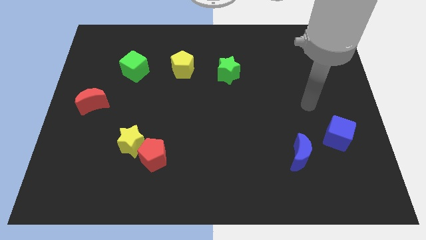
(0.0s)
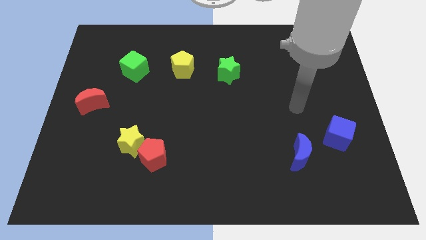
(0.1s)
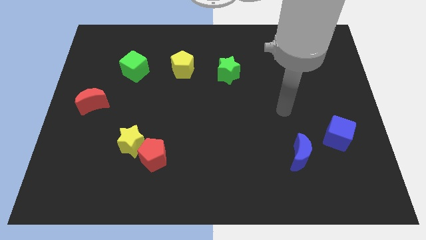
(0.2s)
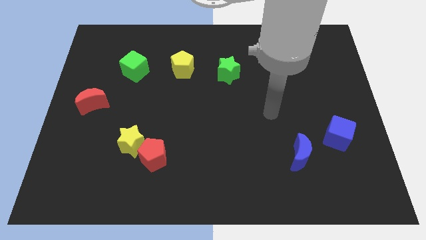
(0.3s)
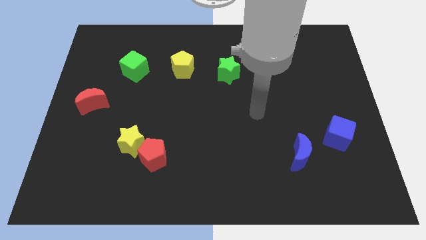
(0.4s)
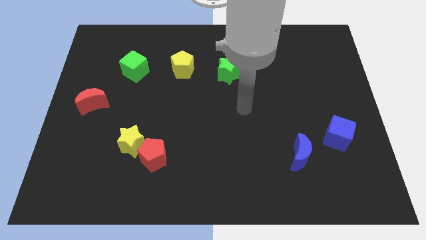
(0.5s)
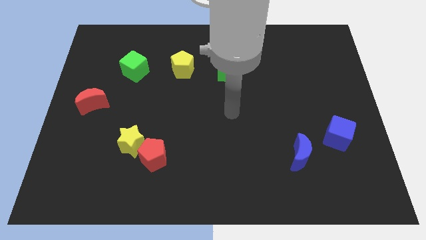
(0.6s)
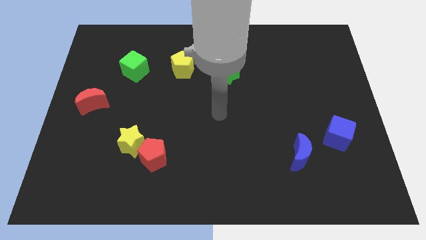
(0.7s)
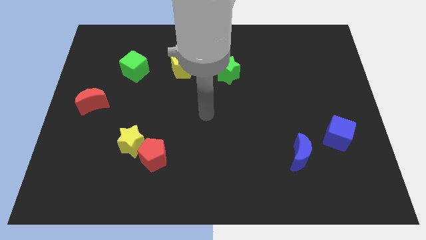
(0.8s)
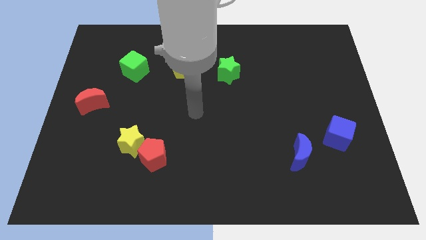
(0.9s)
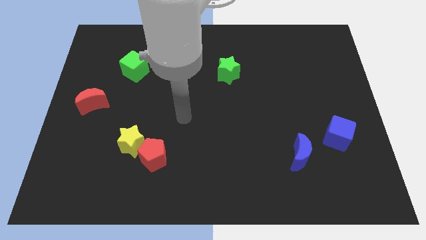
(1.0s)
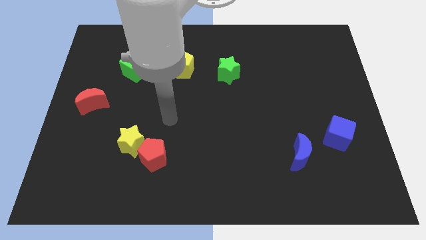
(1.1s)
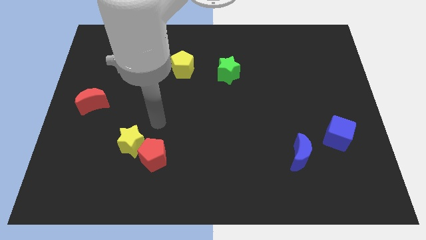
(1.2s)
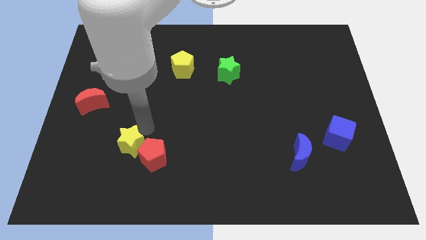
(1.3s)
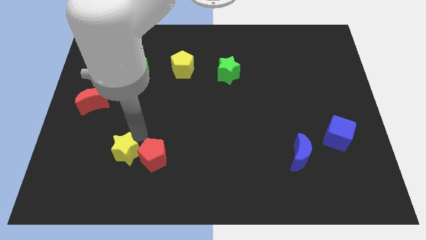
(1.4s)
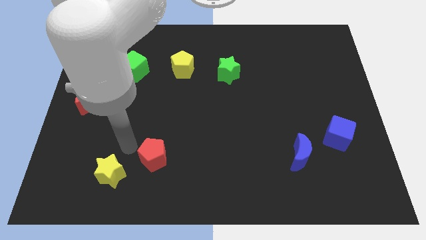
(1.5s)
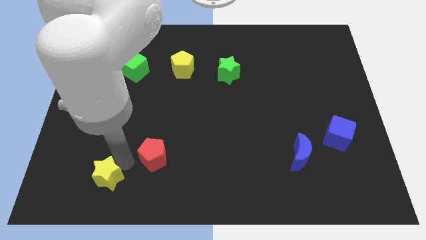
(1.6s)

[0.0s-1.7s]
move the red pentagon away from the yellow star

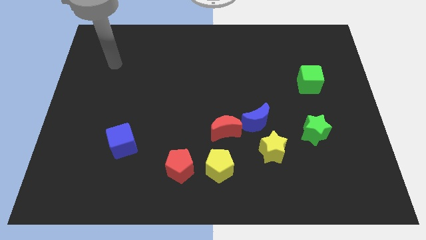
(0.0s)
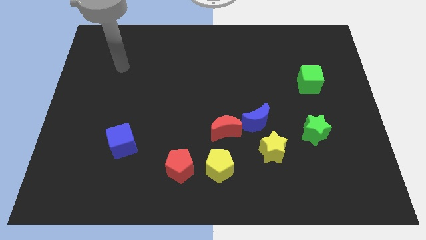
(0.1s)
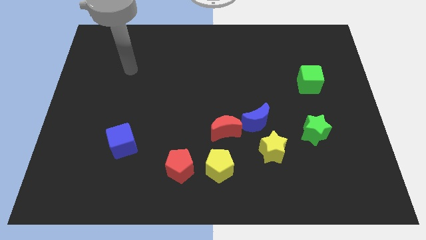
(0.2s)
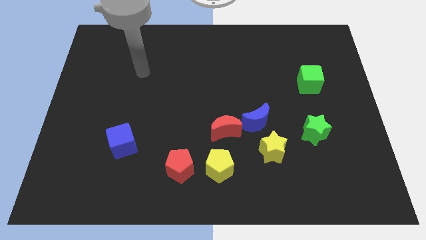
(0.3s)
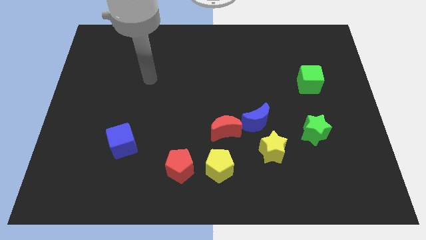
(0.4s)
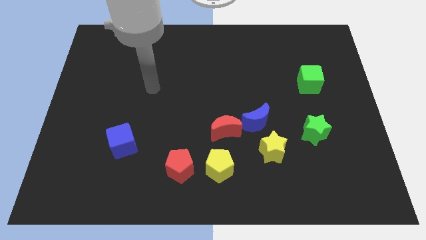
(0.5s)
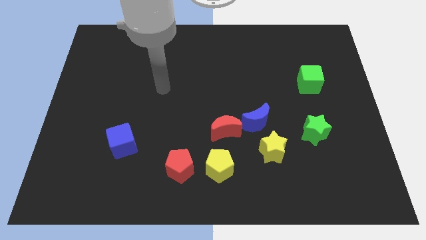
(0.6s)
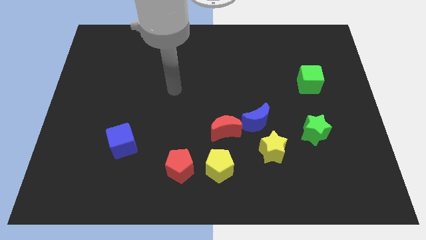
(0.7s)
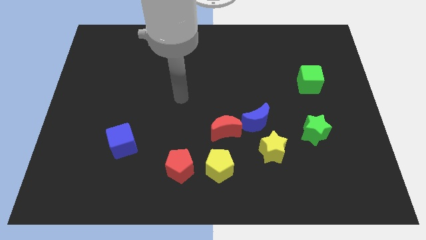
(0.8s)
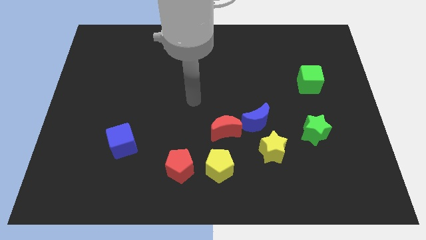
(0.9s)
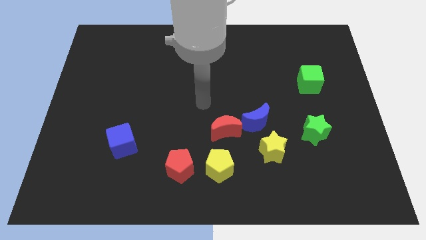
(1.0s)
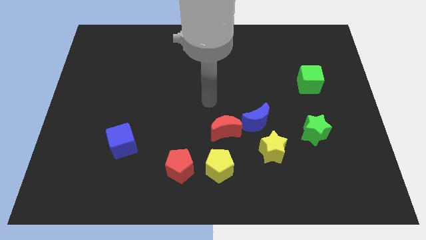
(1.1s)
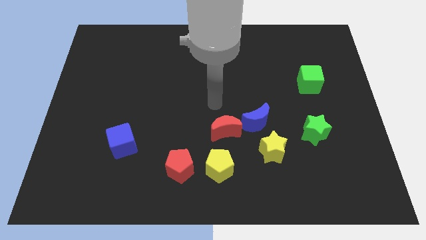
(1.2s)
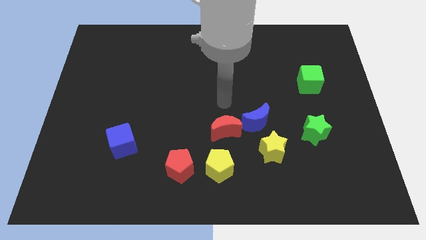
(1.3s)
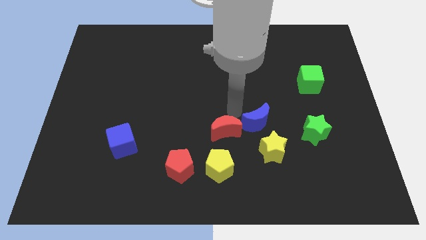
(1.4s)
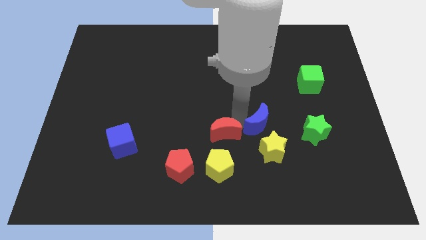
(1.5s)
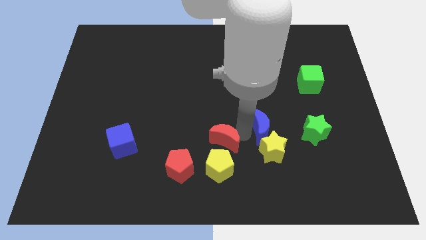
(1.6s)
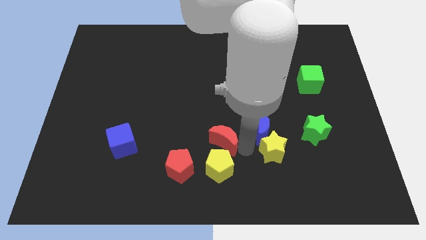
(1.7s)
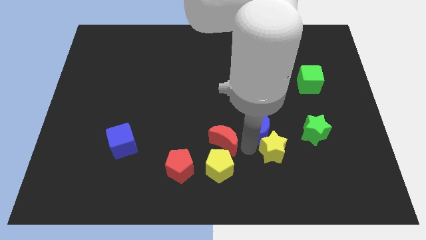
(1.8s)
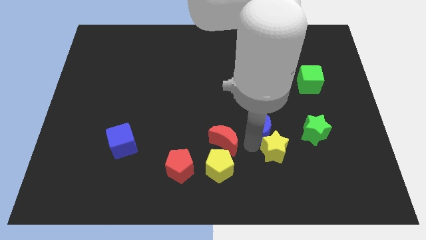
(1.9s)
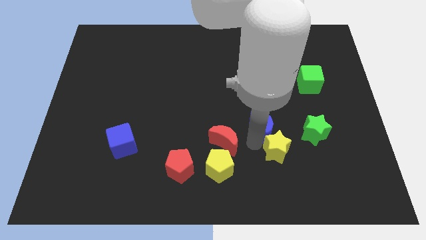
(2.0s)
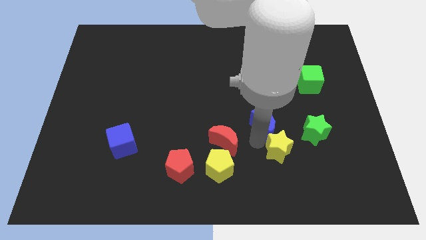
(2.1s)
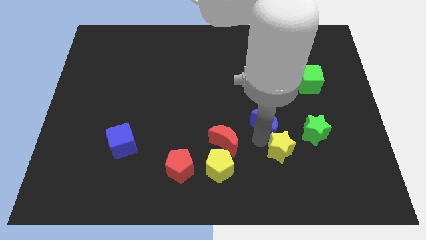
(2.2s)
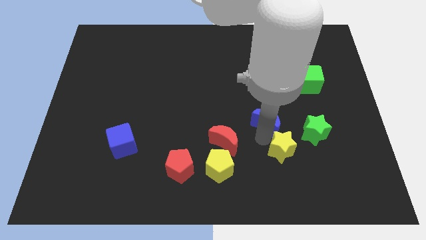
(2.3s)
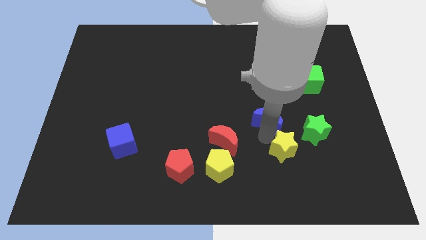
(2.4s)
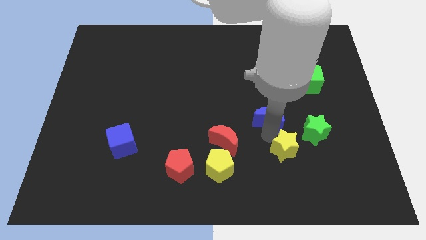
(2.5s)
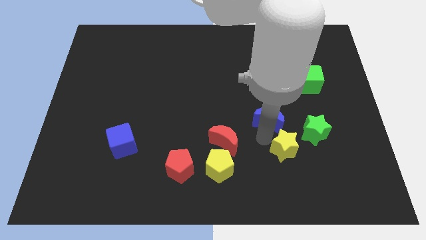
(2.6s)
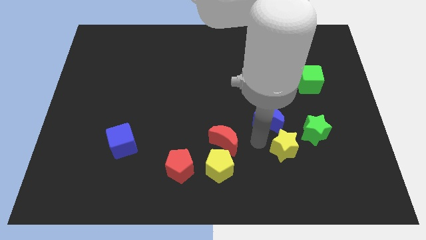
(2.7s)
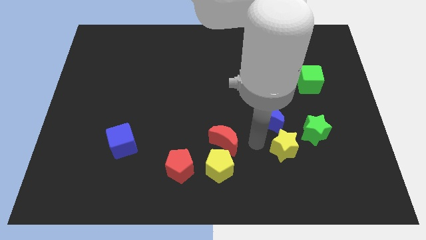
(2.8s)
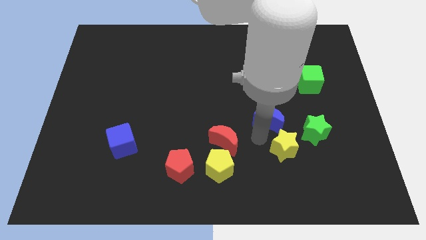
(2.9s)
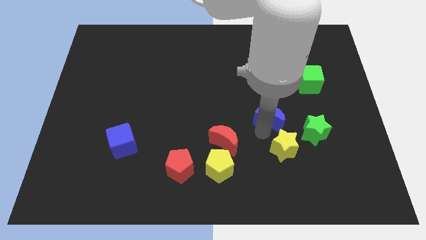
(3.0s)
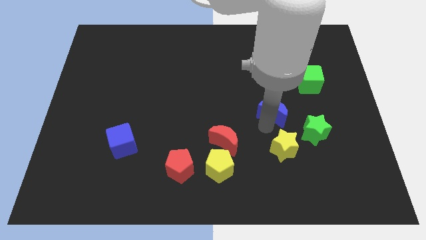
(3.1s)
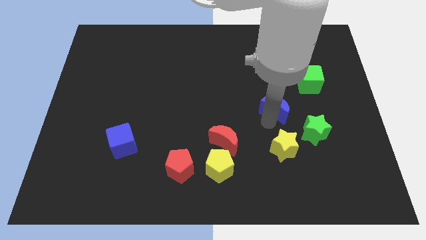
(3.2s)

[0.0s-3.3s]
separate the blue moon from the red moon and yellow star

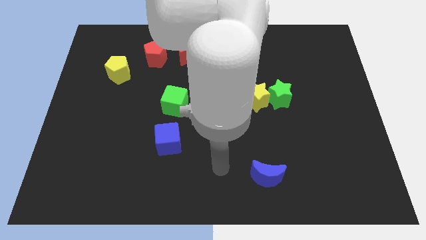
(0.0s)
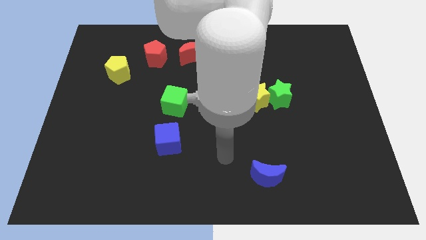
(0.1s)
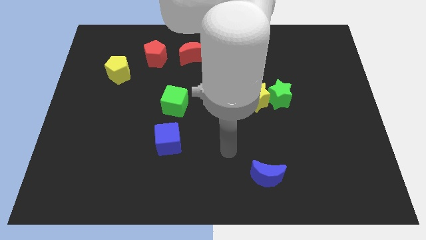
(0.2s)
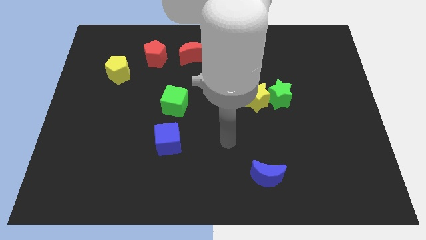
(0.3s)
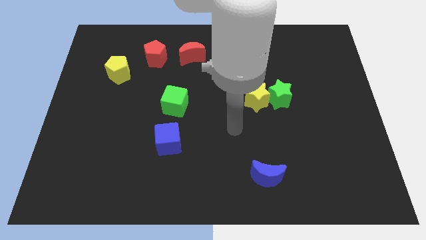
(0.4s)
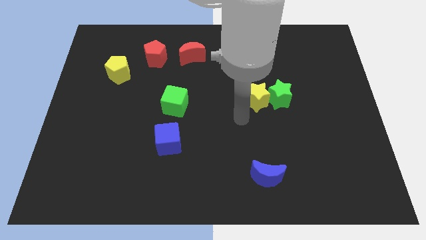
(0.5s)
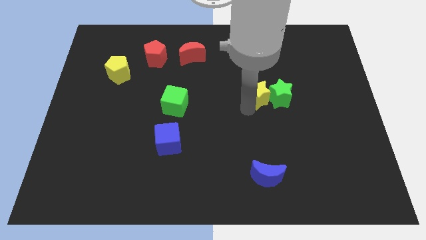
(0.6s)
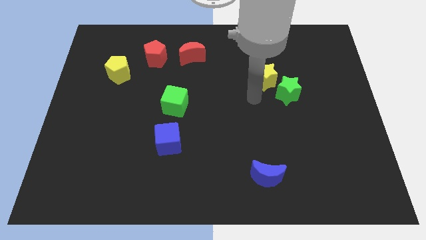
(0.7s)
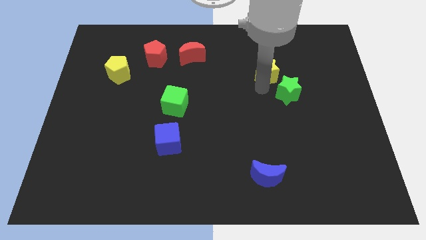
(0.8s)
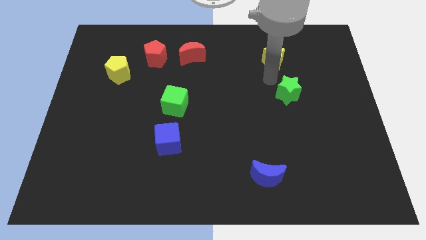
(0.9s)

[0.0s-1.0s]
separate the green star from the yellow star

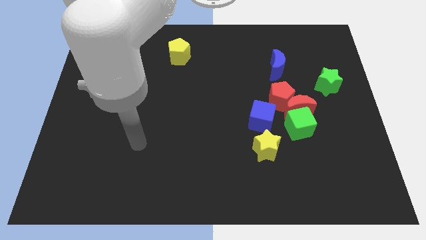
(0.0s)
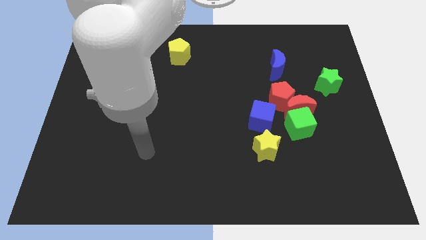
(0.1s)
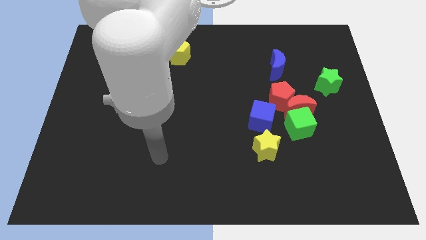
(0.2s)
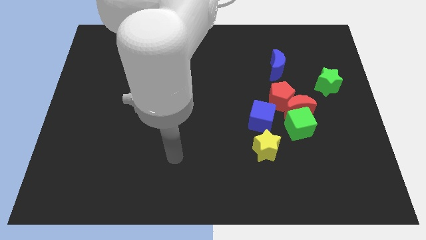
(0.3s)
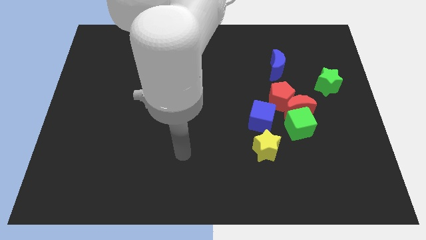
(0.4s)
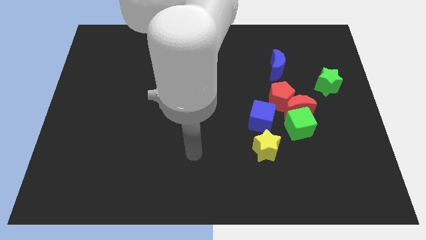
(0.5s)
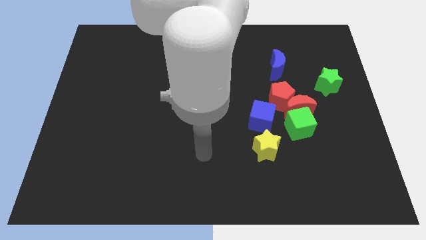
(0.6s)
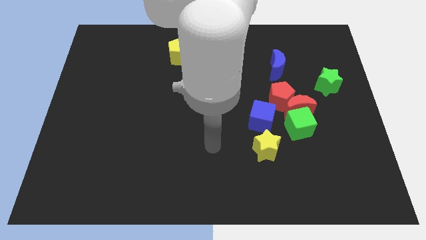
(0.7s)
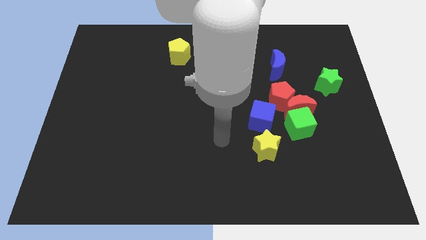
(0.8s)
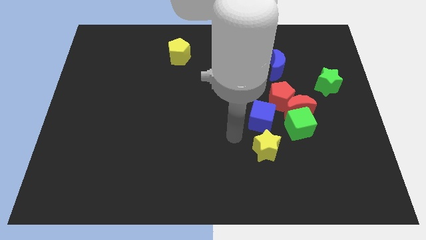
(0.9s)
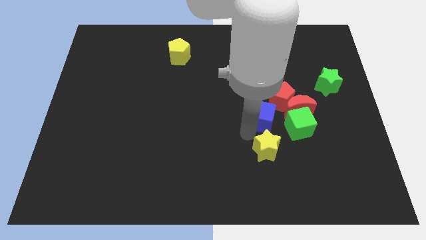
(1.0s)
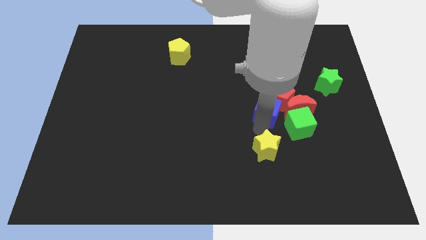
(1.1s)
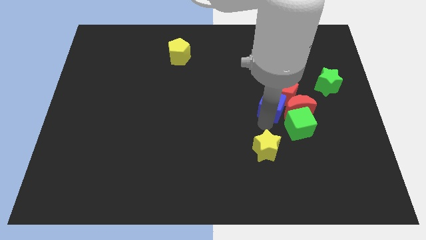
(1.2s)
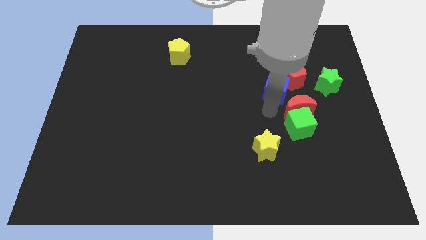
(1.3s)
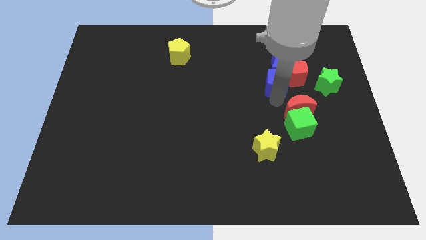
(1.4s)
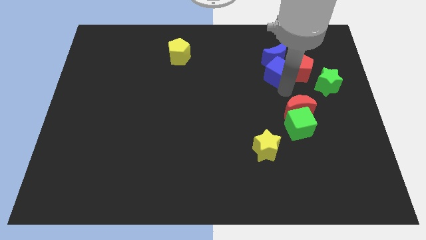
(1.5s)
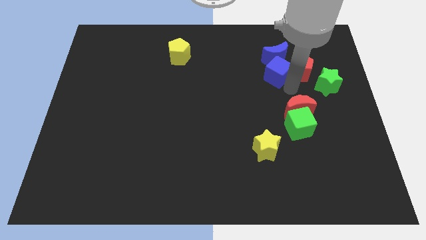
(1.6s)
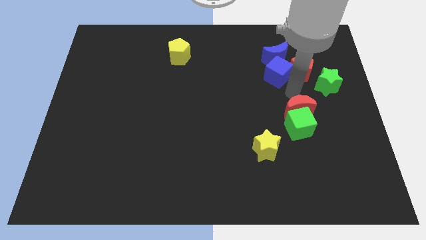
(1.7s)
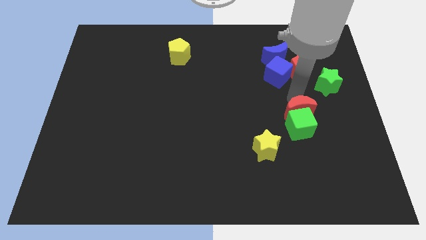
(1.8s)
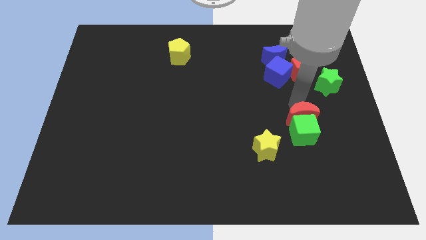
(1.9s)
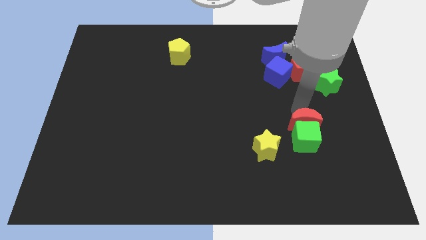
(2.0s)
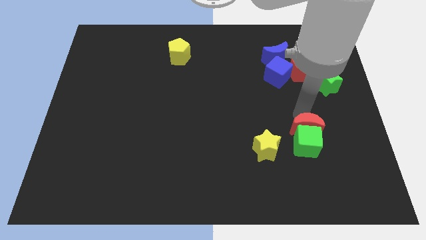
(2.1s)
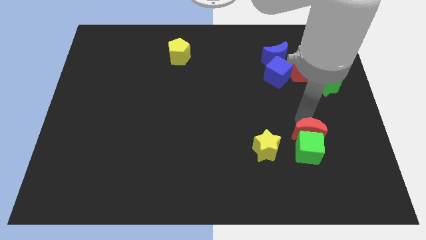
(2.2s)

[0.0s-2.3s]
separate the red moon from the group

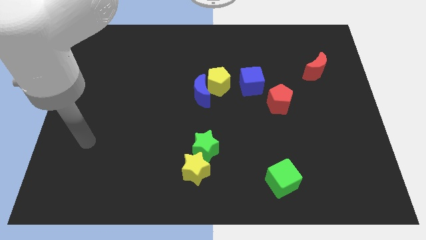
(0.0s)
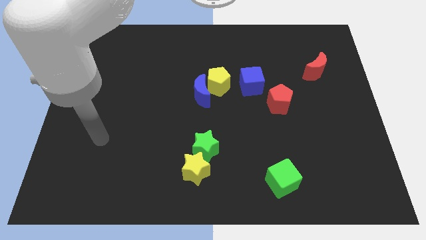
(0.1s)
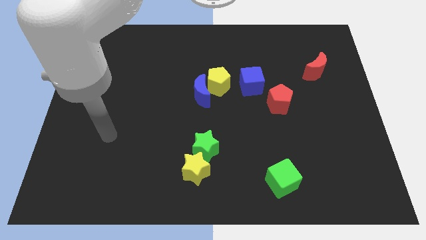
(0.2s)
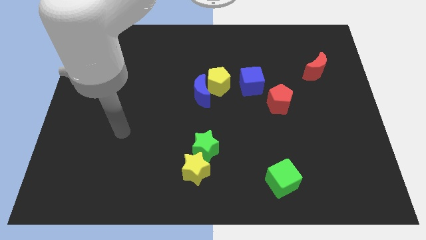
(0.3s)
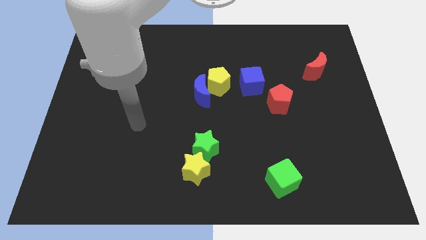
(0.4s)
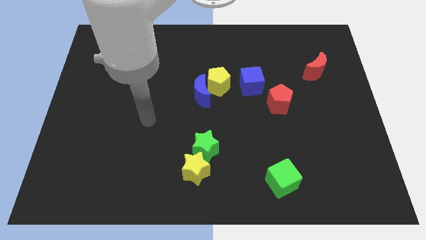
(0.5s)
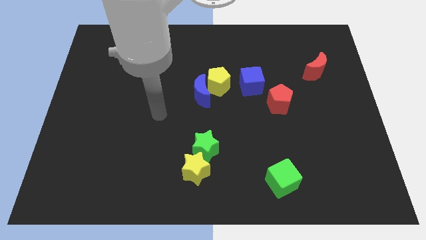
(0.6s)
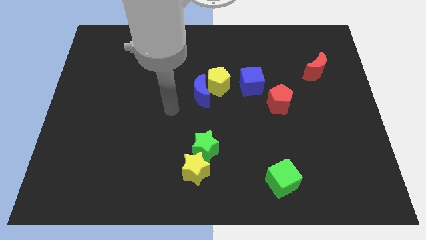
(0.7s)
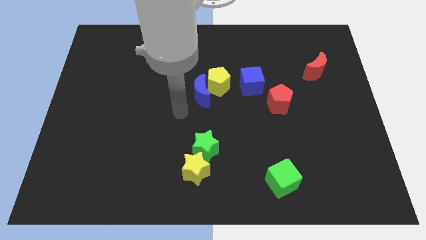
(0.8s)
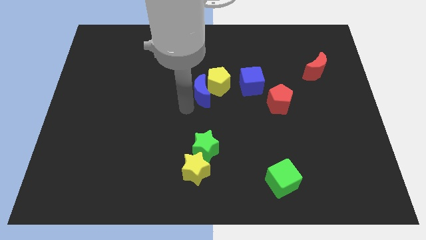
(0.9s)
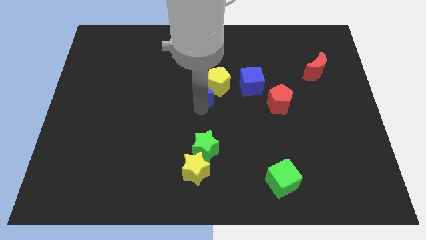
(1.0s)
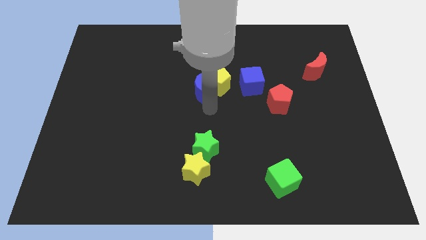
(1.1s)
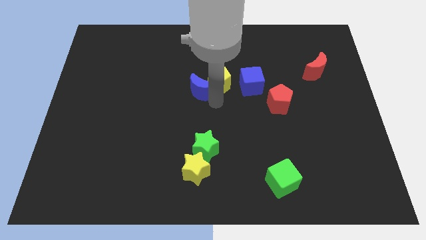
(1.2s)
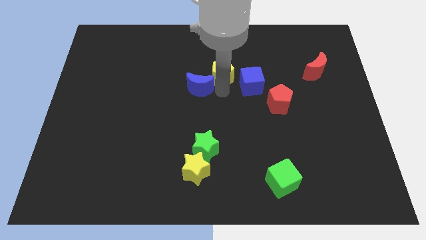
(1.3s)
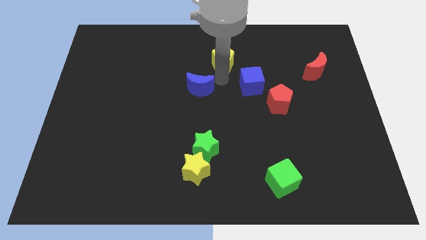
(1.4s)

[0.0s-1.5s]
pull the blue moon apart from the yellow pentagon
